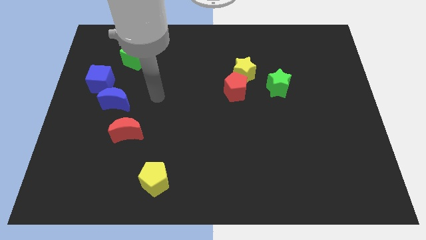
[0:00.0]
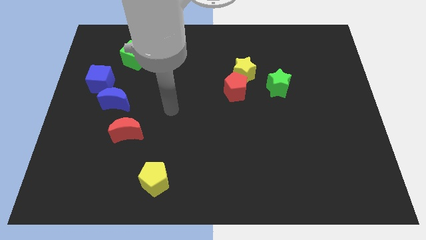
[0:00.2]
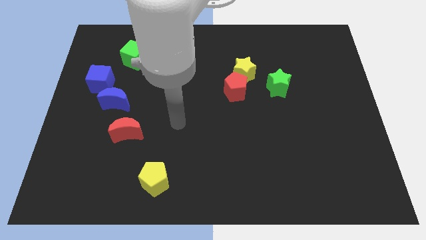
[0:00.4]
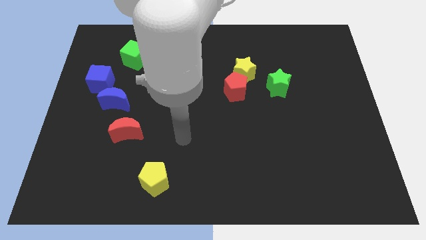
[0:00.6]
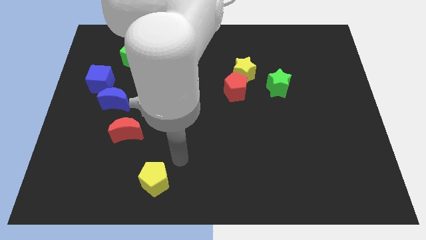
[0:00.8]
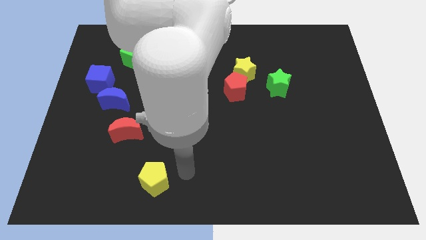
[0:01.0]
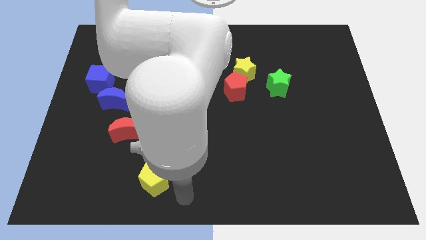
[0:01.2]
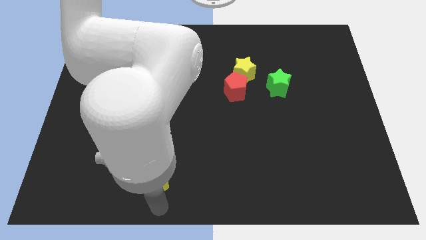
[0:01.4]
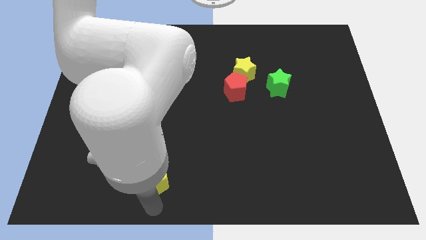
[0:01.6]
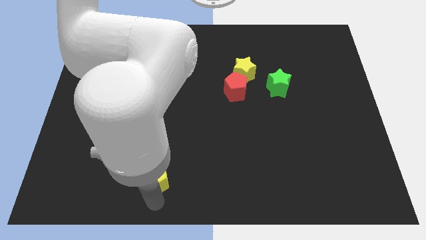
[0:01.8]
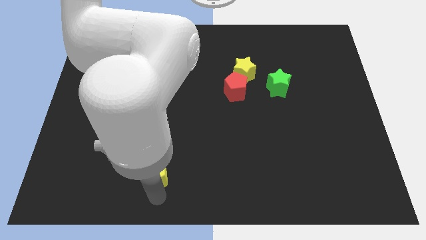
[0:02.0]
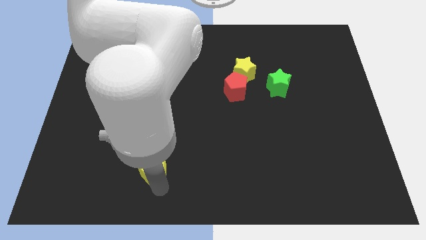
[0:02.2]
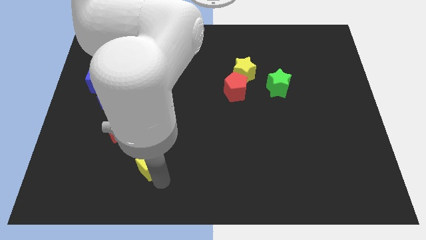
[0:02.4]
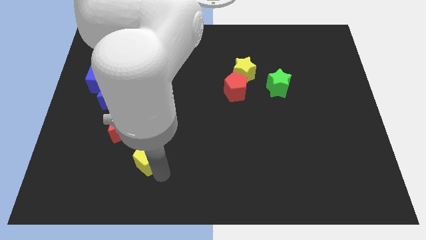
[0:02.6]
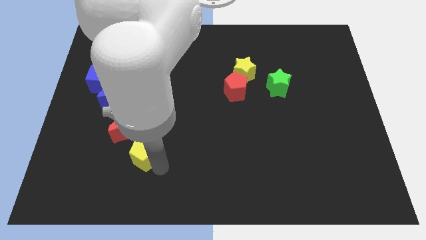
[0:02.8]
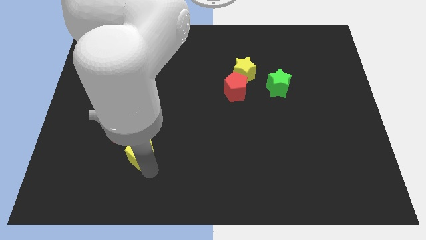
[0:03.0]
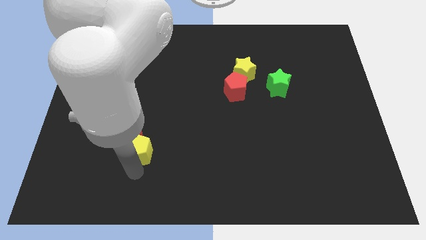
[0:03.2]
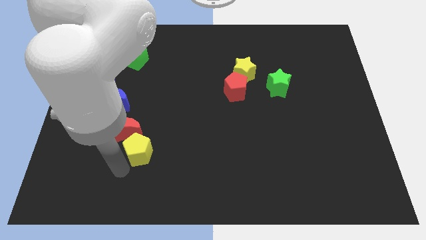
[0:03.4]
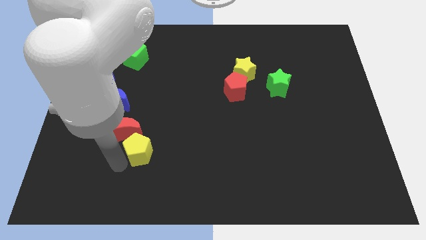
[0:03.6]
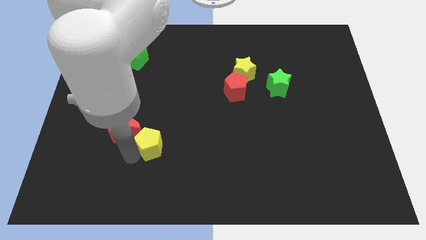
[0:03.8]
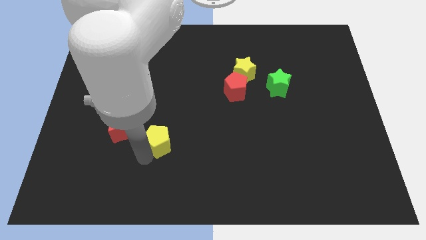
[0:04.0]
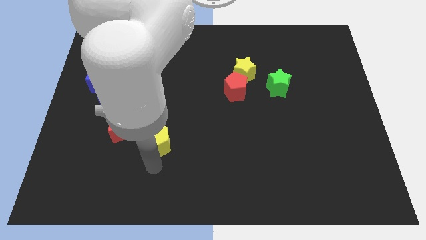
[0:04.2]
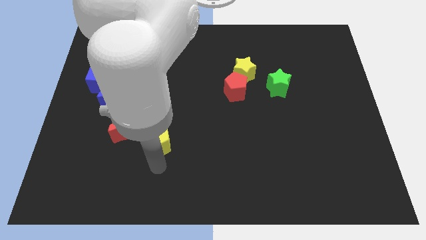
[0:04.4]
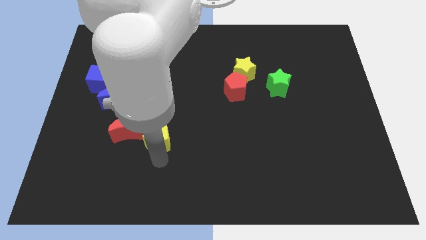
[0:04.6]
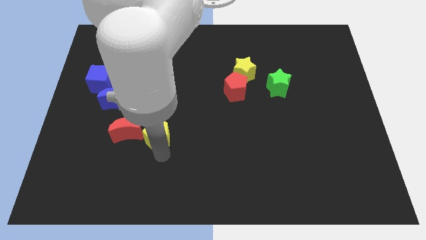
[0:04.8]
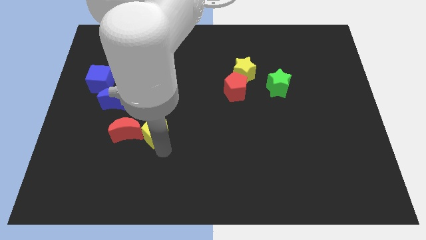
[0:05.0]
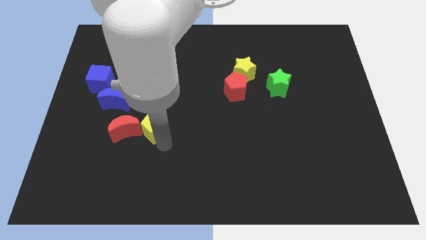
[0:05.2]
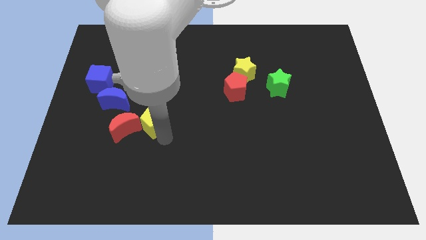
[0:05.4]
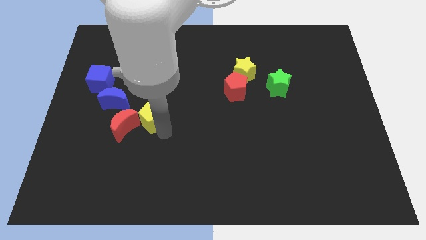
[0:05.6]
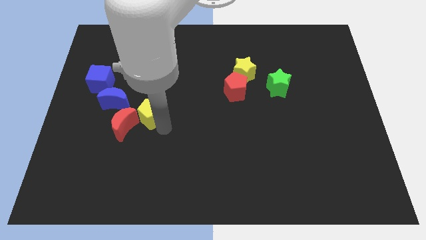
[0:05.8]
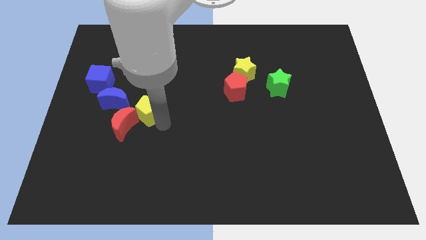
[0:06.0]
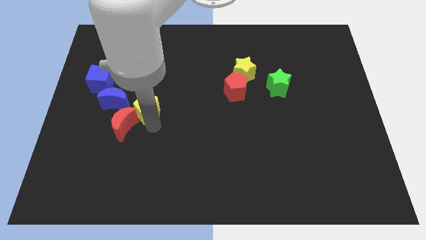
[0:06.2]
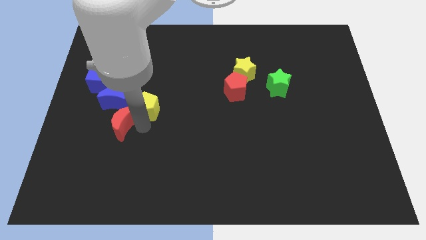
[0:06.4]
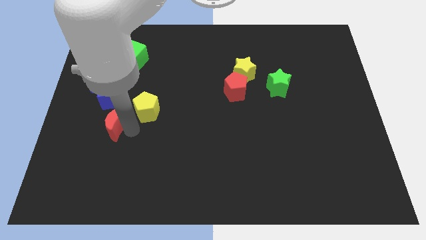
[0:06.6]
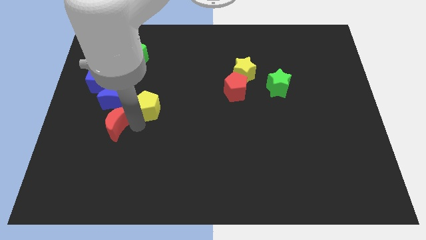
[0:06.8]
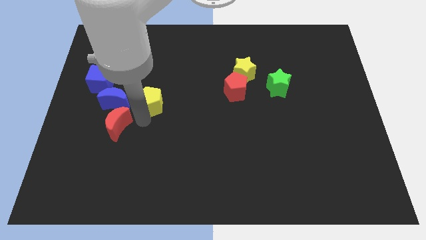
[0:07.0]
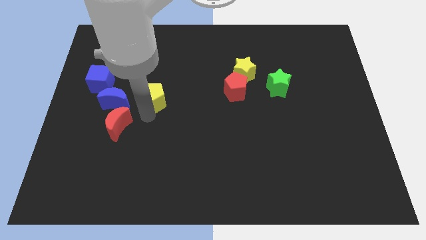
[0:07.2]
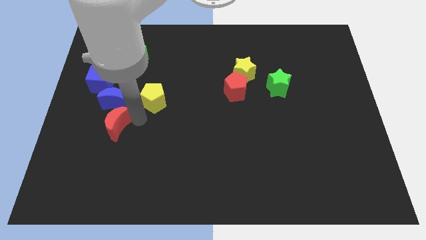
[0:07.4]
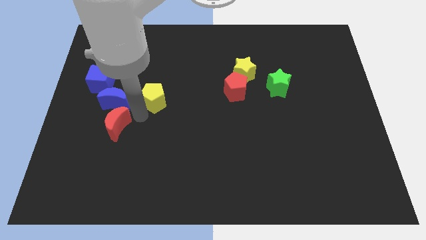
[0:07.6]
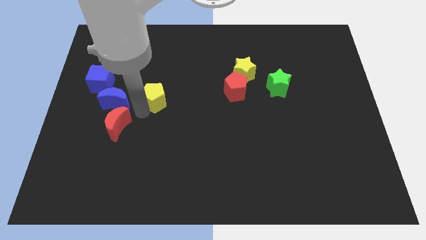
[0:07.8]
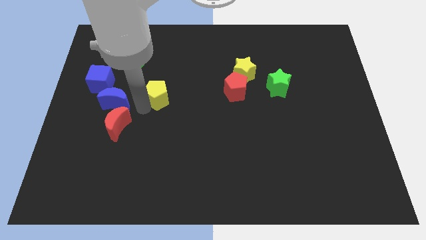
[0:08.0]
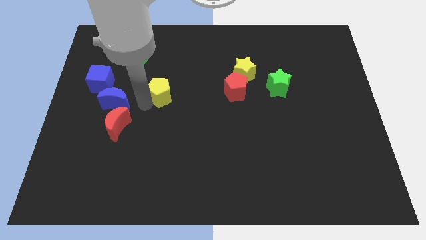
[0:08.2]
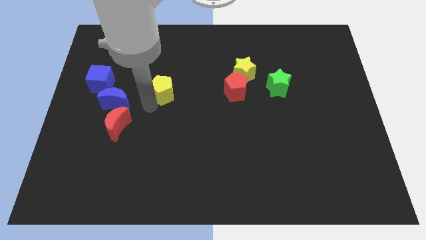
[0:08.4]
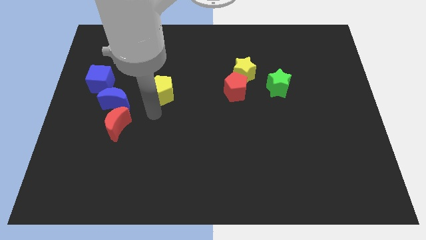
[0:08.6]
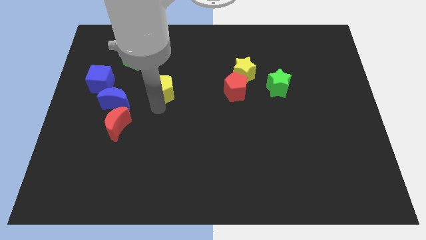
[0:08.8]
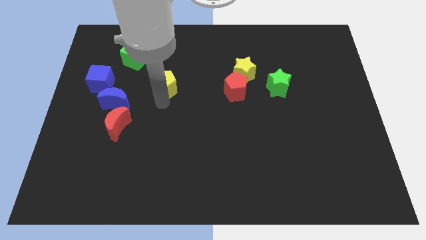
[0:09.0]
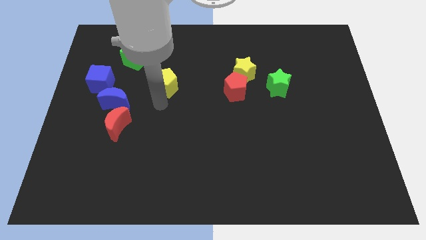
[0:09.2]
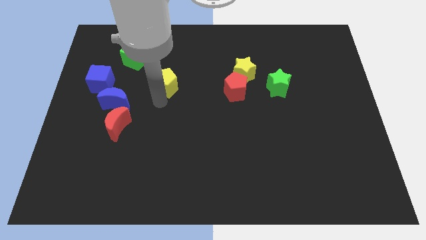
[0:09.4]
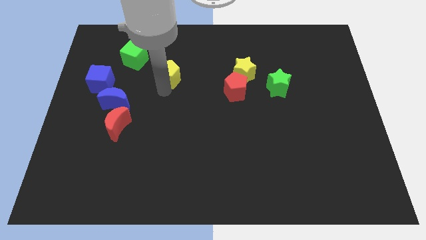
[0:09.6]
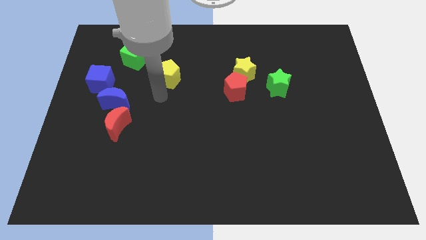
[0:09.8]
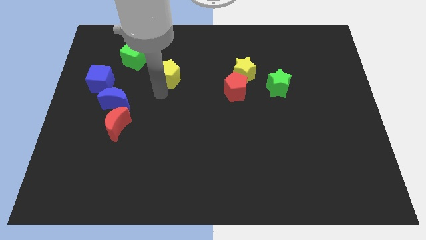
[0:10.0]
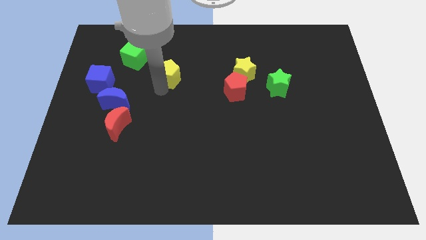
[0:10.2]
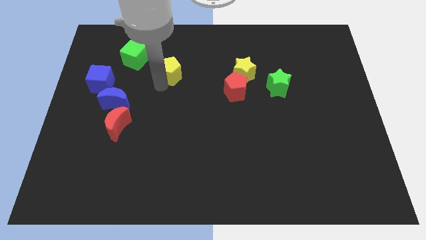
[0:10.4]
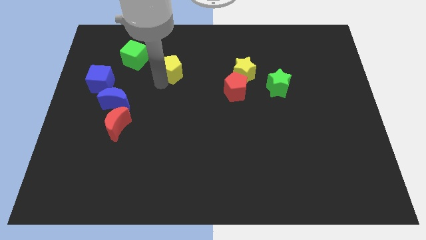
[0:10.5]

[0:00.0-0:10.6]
push the yellow pentagon to the right side of the green cube

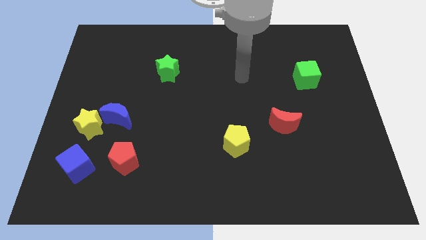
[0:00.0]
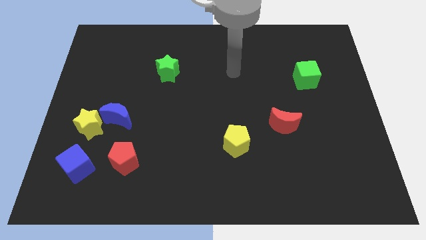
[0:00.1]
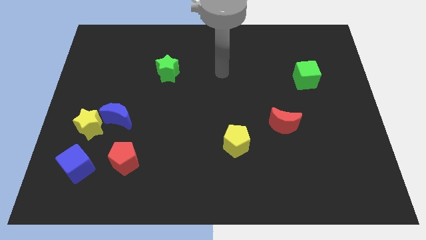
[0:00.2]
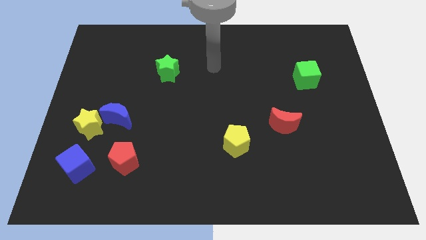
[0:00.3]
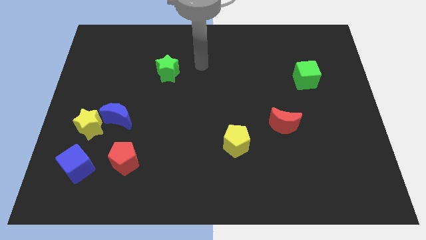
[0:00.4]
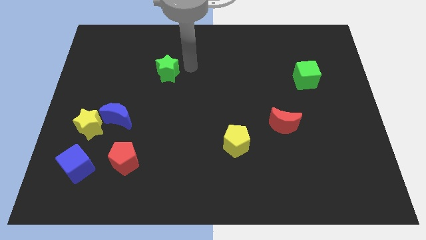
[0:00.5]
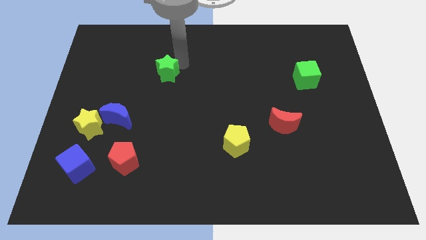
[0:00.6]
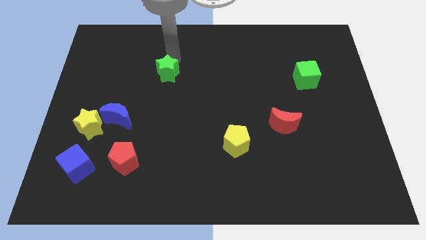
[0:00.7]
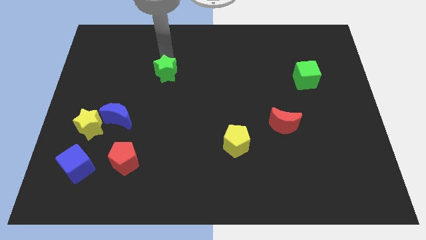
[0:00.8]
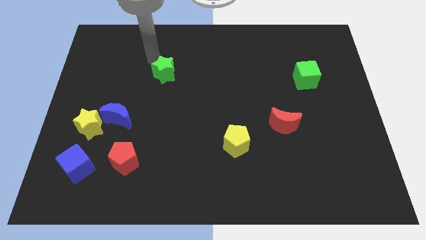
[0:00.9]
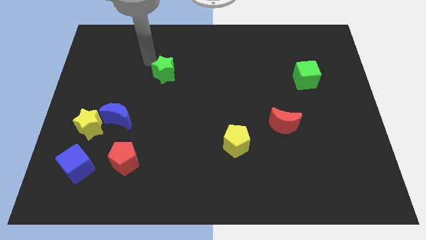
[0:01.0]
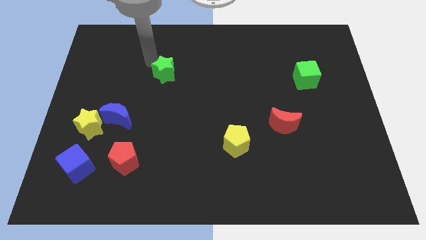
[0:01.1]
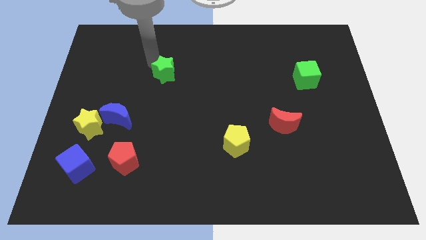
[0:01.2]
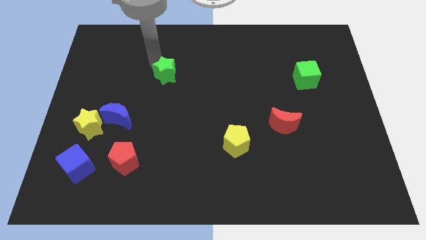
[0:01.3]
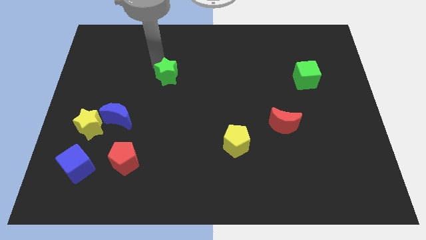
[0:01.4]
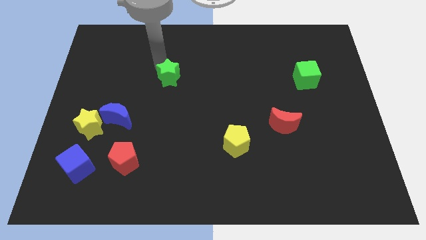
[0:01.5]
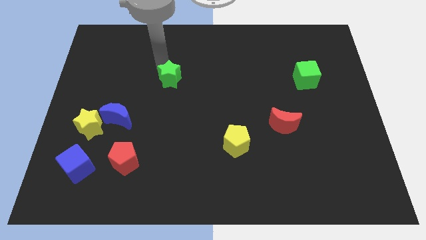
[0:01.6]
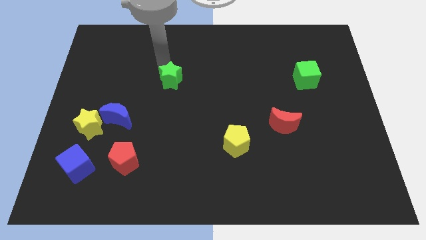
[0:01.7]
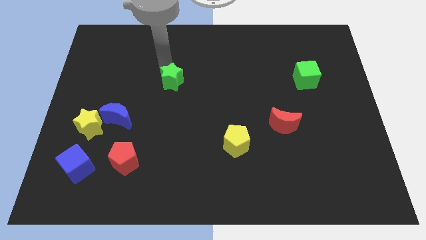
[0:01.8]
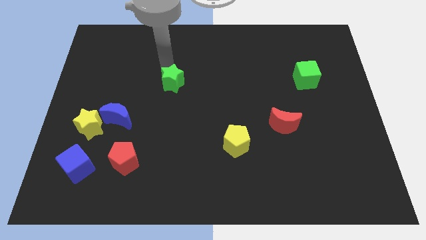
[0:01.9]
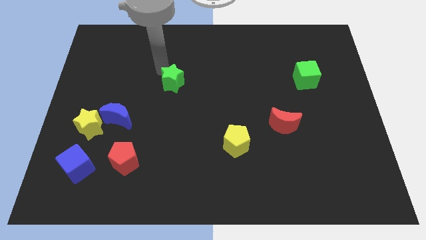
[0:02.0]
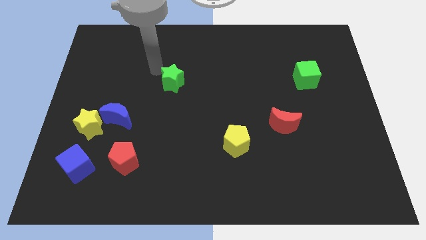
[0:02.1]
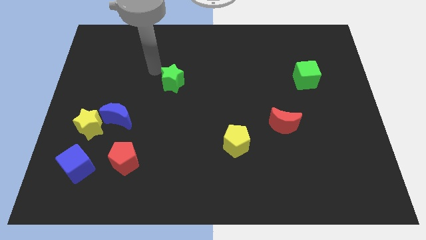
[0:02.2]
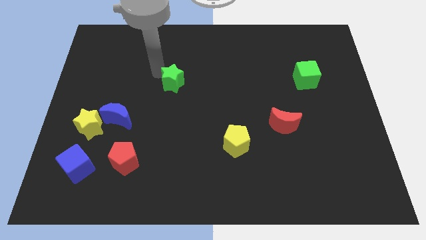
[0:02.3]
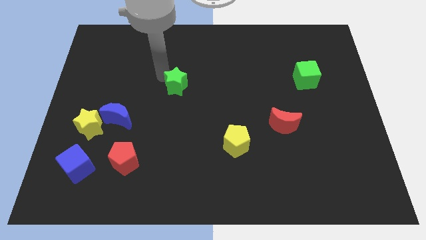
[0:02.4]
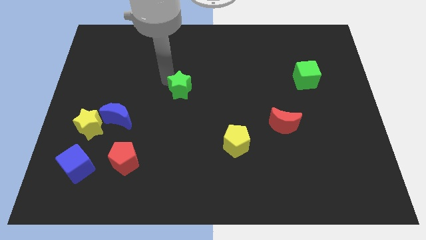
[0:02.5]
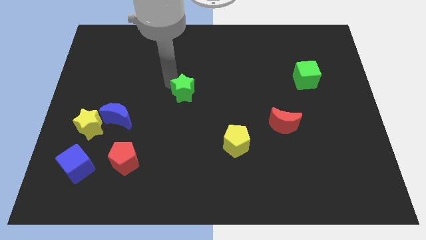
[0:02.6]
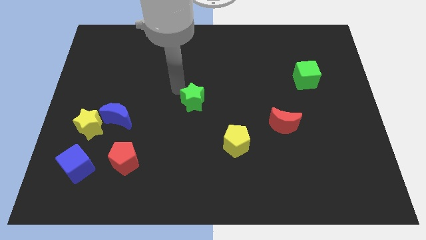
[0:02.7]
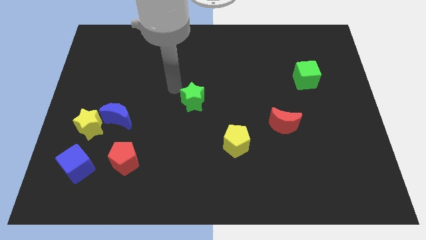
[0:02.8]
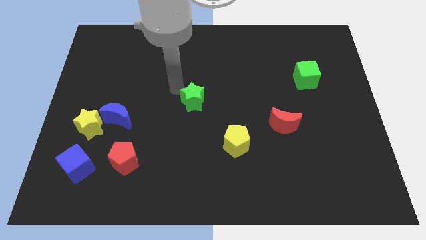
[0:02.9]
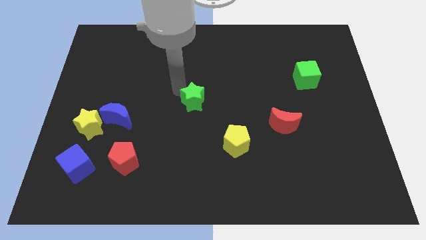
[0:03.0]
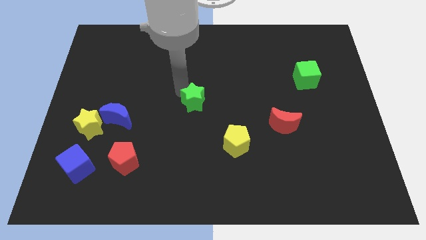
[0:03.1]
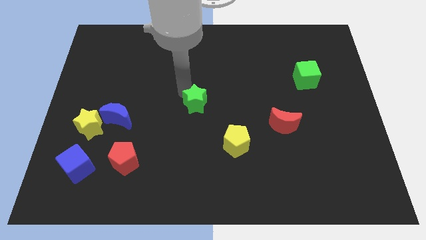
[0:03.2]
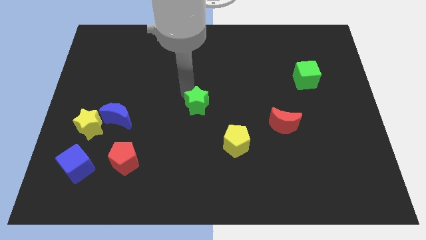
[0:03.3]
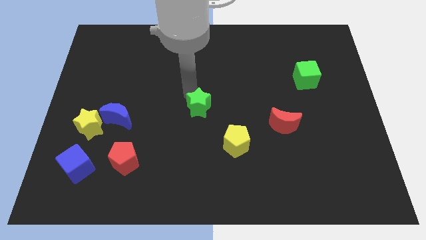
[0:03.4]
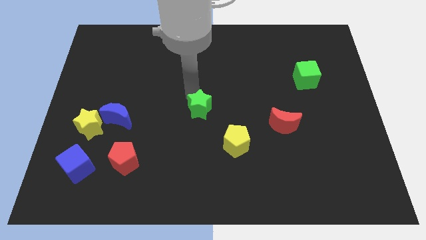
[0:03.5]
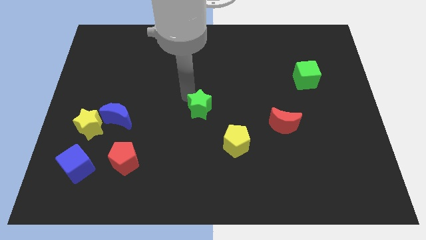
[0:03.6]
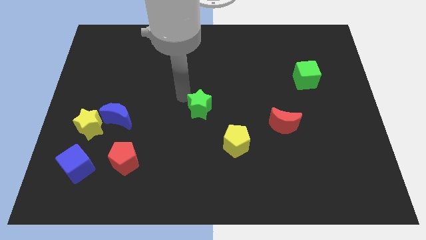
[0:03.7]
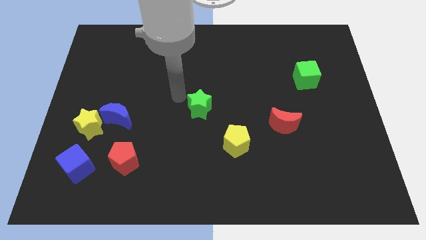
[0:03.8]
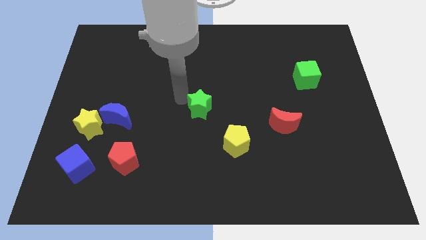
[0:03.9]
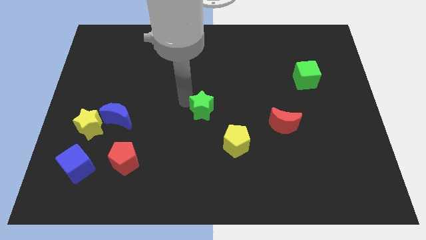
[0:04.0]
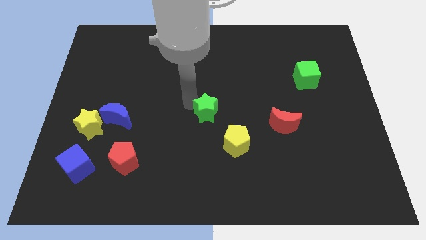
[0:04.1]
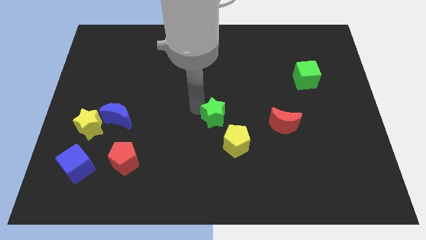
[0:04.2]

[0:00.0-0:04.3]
put the green star just left of the red moon
